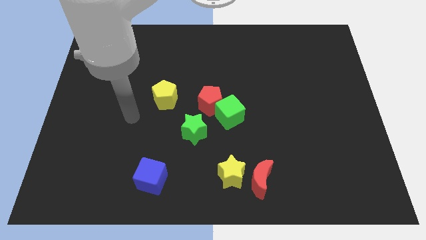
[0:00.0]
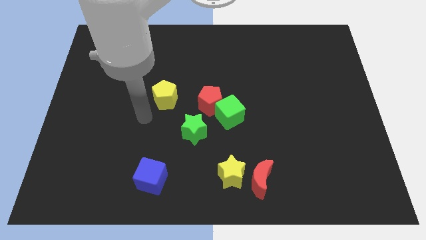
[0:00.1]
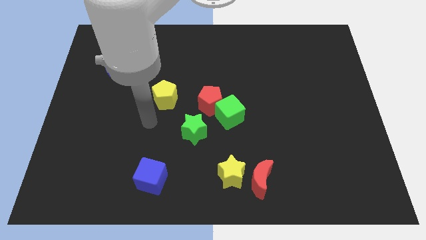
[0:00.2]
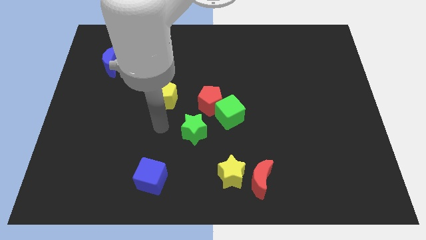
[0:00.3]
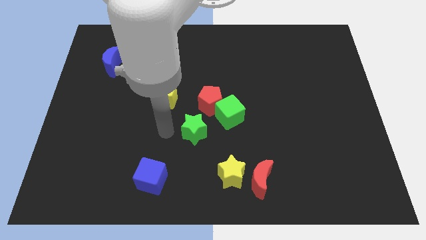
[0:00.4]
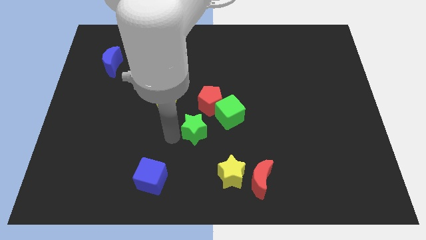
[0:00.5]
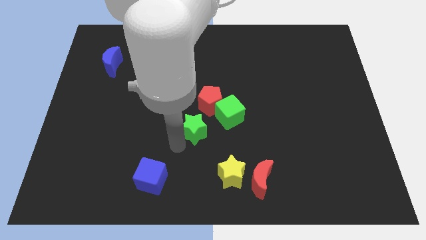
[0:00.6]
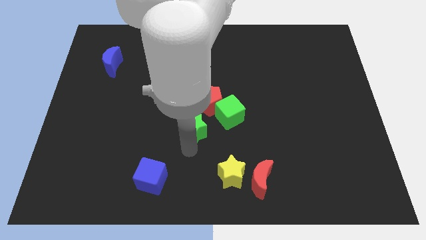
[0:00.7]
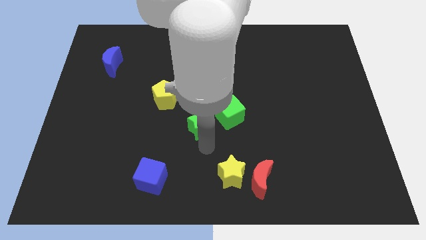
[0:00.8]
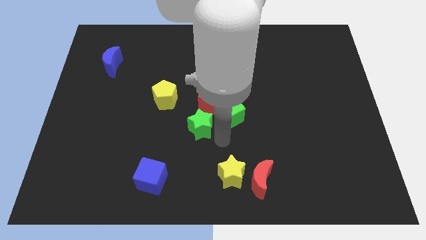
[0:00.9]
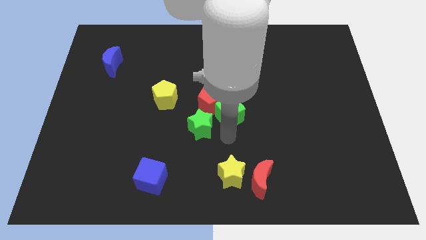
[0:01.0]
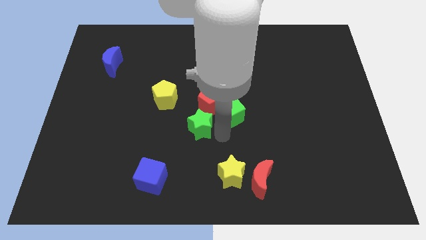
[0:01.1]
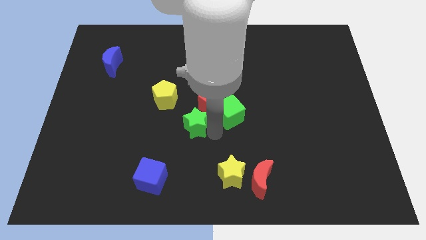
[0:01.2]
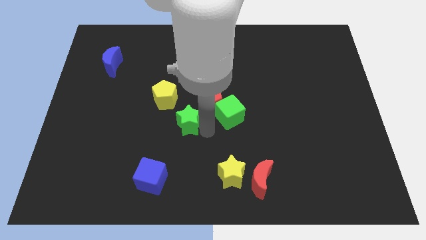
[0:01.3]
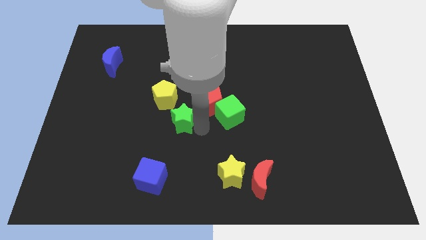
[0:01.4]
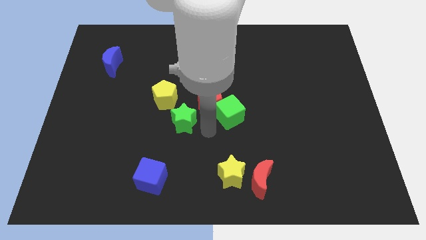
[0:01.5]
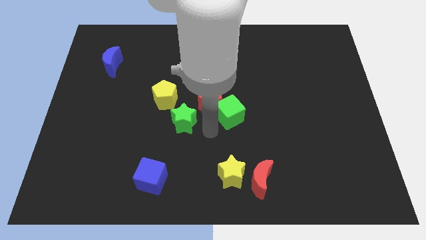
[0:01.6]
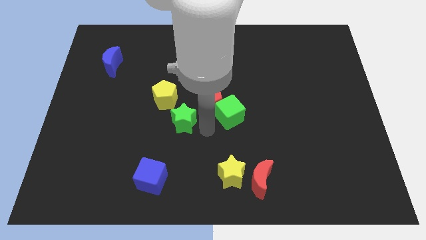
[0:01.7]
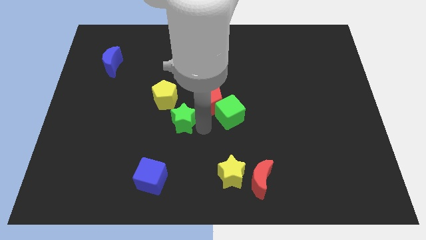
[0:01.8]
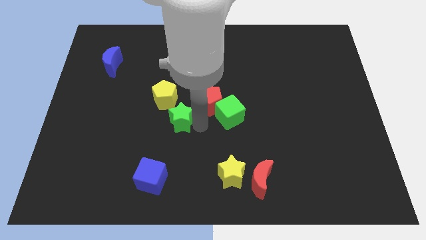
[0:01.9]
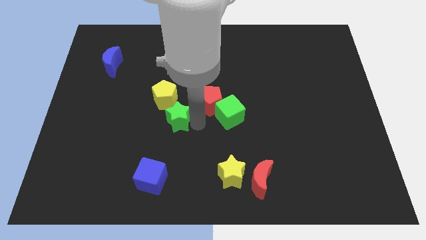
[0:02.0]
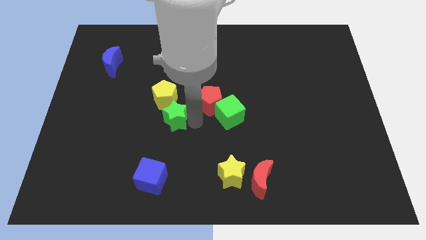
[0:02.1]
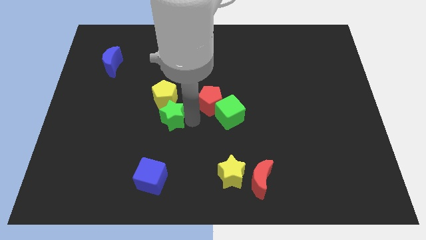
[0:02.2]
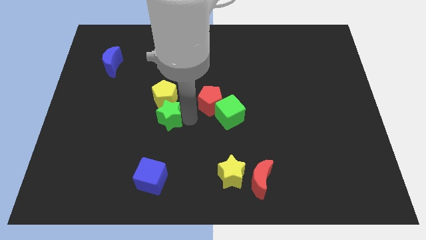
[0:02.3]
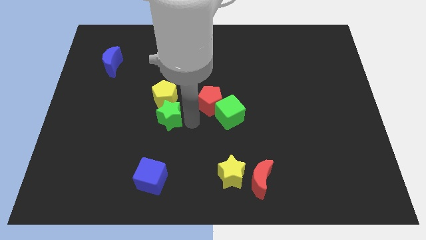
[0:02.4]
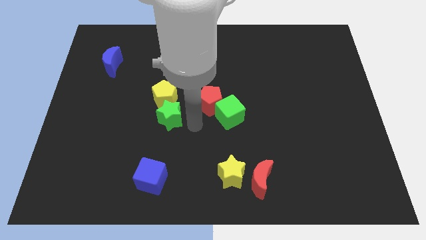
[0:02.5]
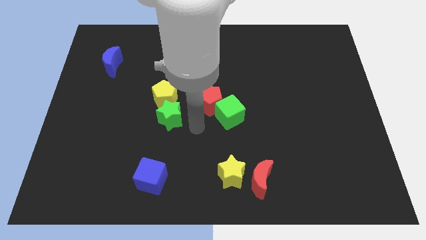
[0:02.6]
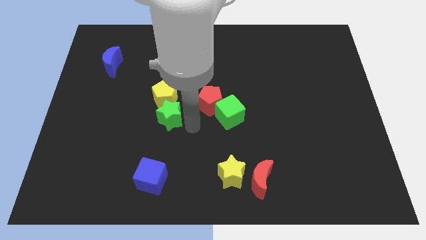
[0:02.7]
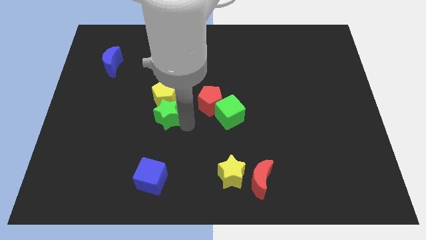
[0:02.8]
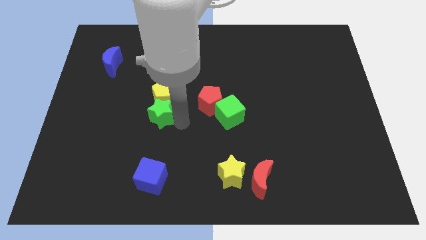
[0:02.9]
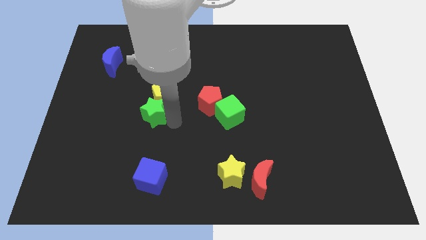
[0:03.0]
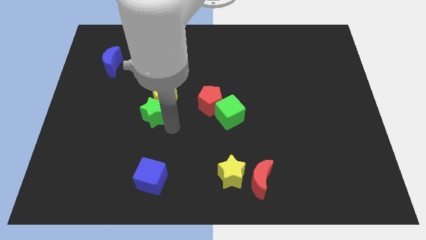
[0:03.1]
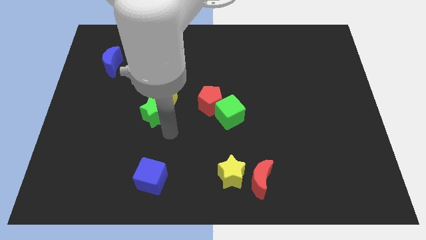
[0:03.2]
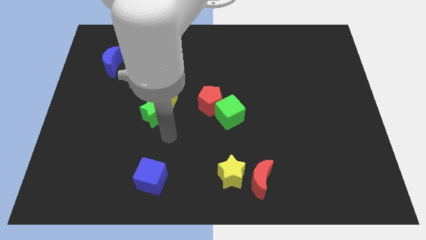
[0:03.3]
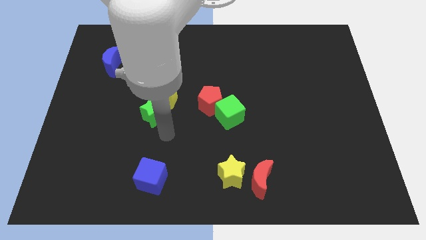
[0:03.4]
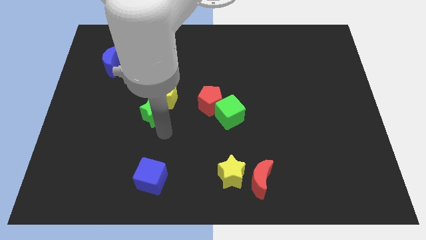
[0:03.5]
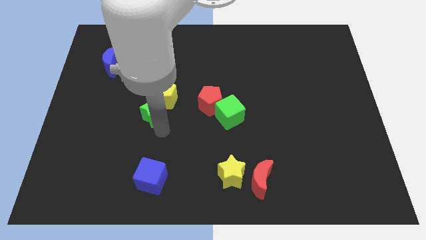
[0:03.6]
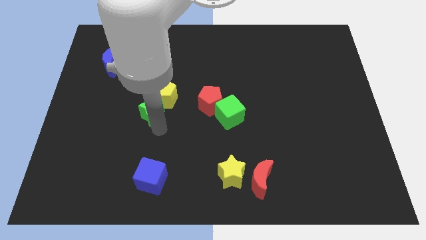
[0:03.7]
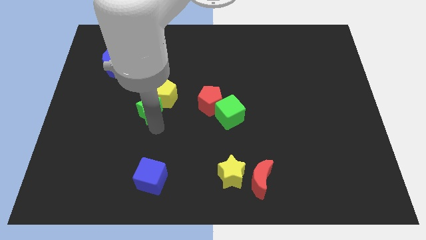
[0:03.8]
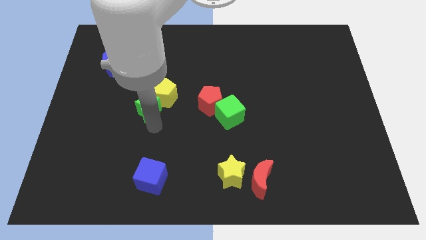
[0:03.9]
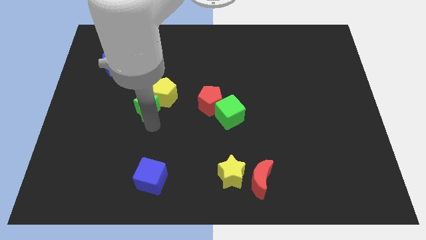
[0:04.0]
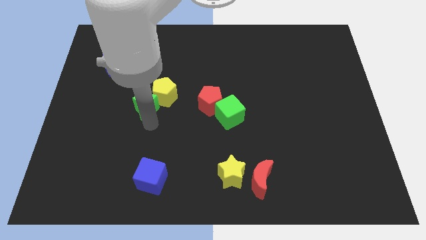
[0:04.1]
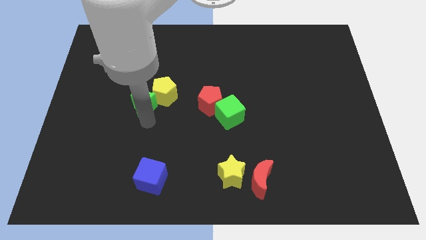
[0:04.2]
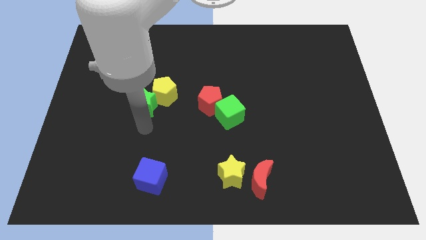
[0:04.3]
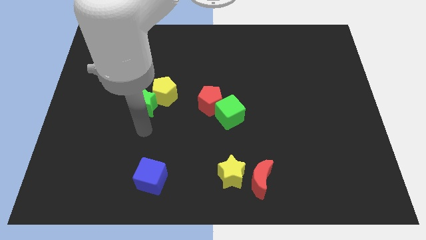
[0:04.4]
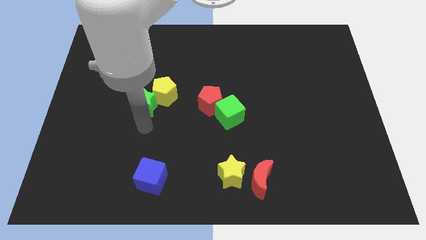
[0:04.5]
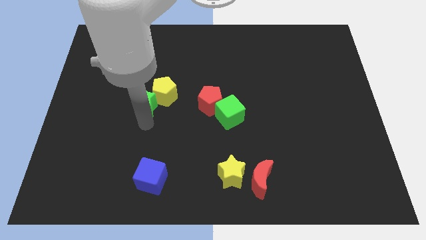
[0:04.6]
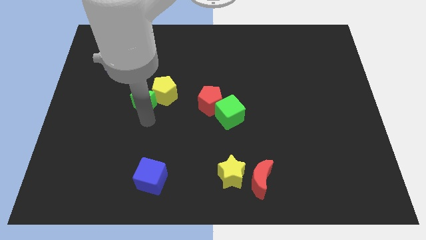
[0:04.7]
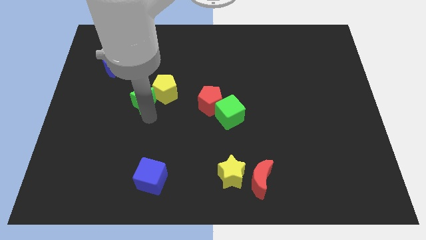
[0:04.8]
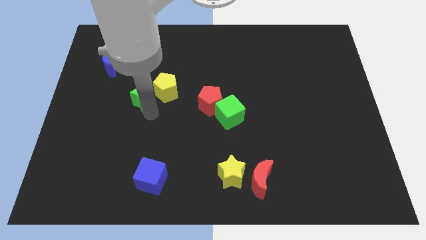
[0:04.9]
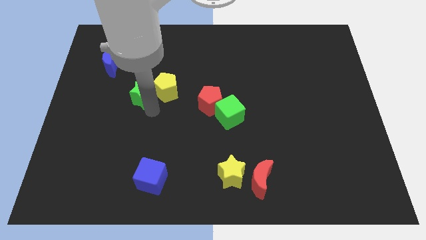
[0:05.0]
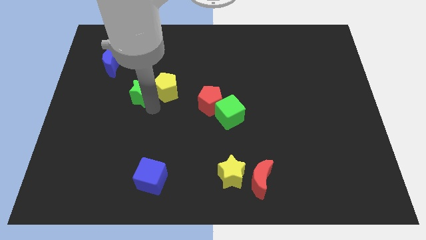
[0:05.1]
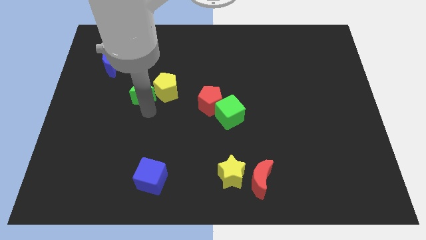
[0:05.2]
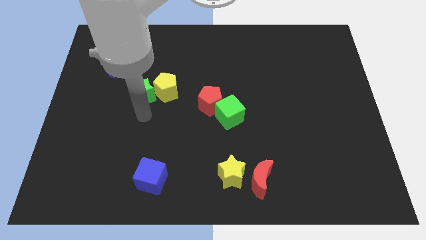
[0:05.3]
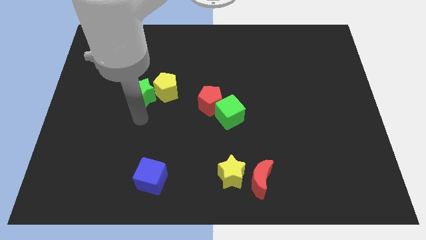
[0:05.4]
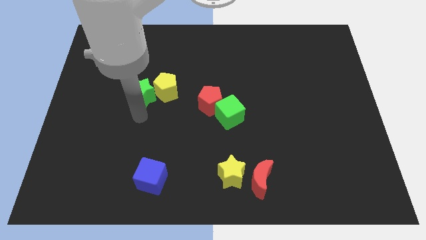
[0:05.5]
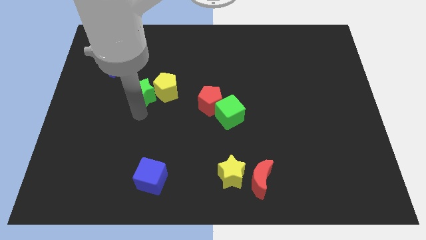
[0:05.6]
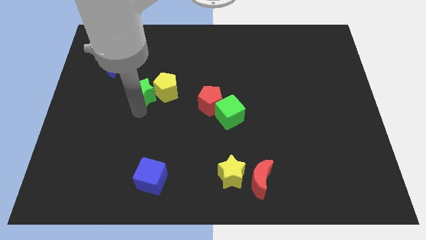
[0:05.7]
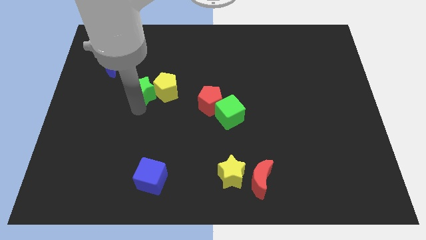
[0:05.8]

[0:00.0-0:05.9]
push the green star diagonally up and to the left of the yellow pentagon

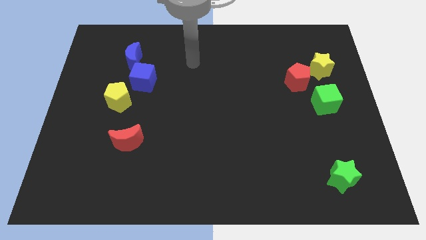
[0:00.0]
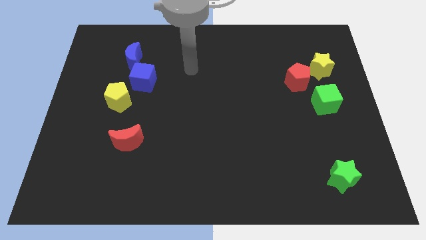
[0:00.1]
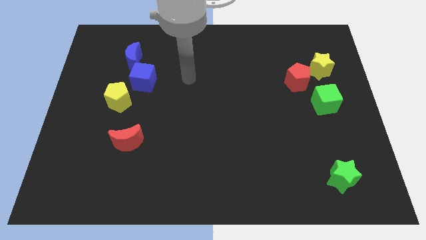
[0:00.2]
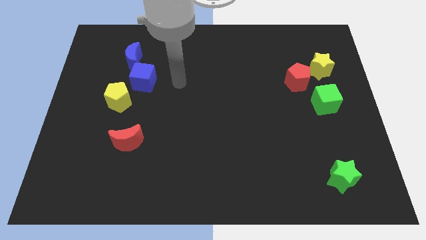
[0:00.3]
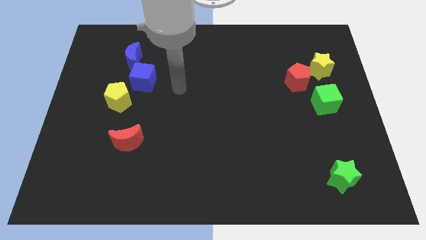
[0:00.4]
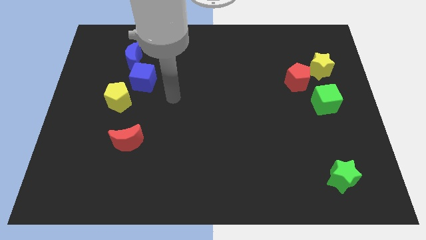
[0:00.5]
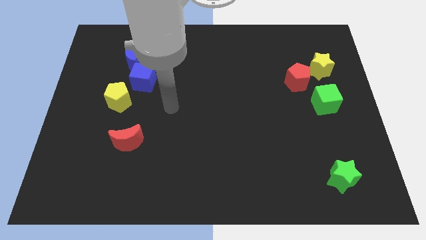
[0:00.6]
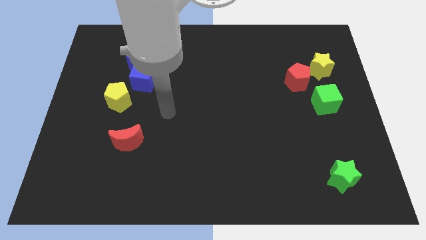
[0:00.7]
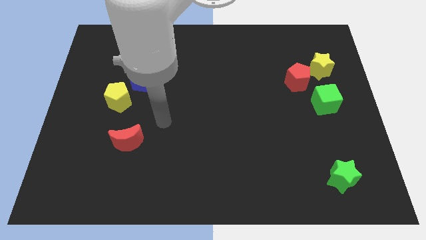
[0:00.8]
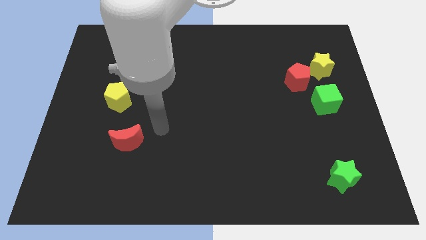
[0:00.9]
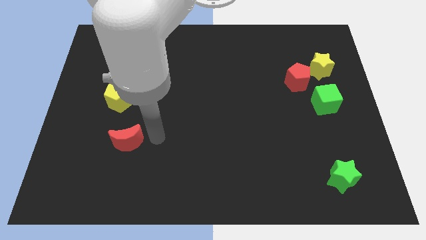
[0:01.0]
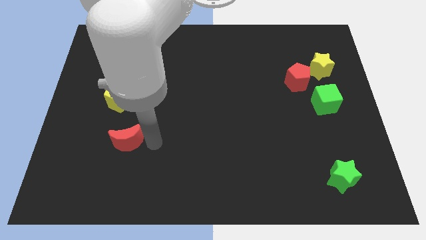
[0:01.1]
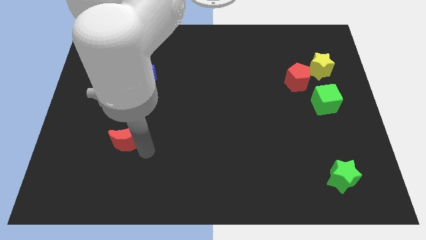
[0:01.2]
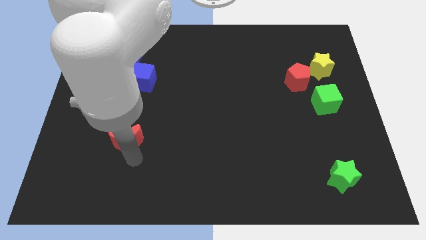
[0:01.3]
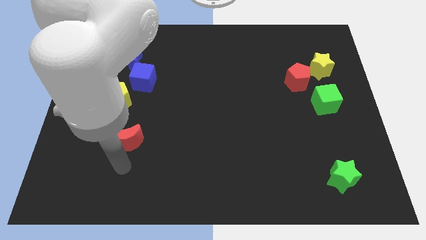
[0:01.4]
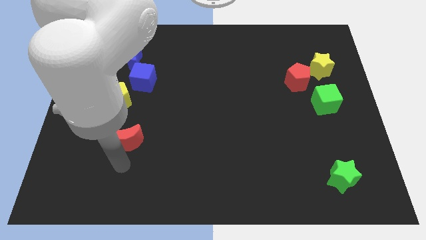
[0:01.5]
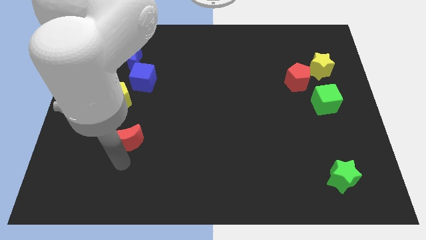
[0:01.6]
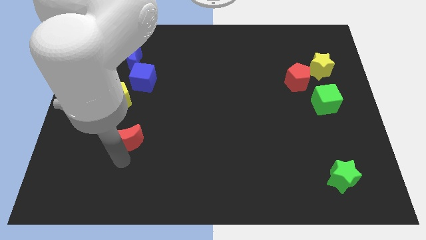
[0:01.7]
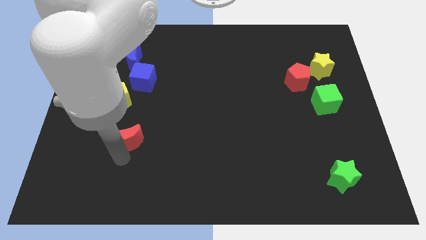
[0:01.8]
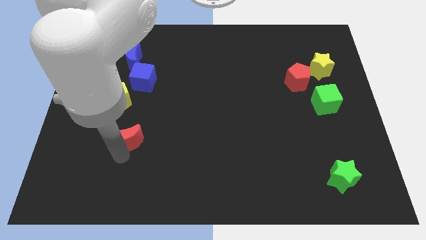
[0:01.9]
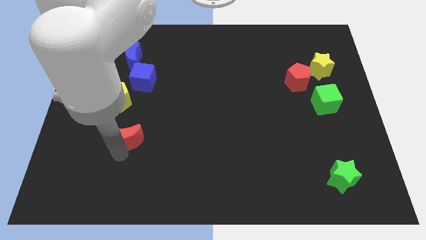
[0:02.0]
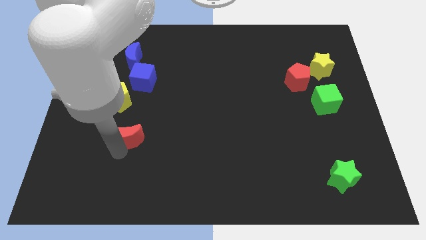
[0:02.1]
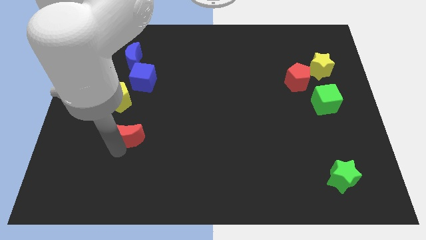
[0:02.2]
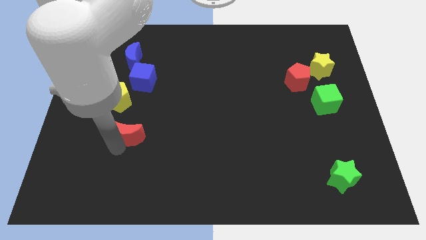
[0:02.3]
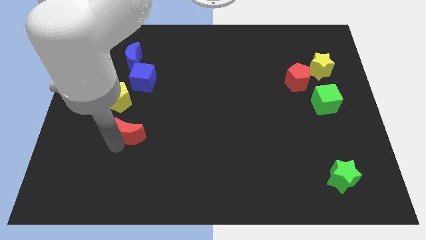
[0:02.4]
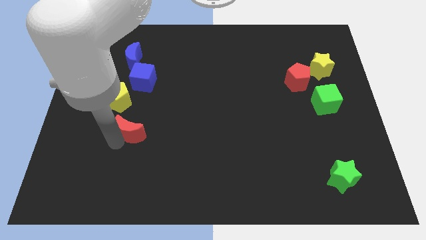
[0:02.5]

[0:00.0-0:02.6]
put the red moon to the bottom side of the blue cube
